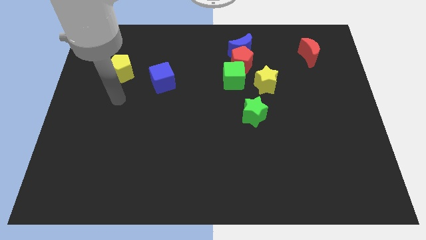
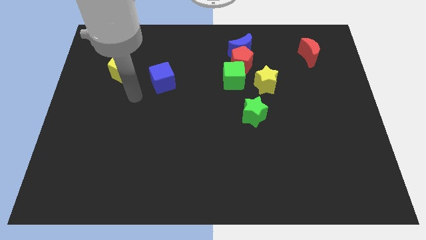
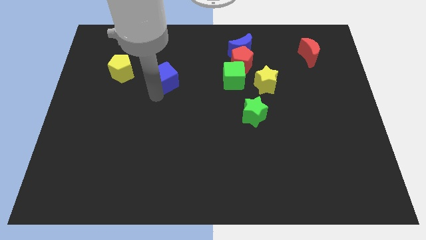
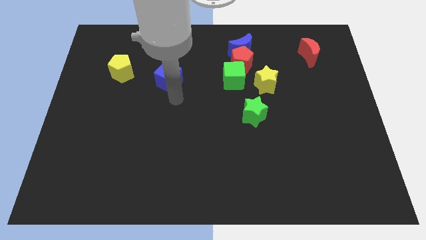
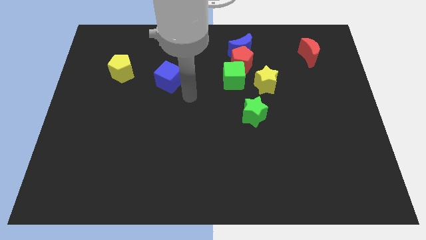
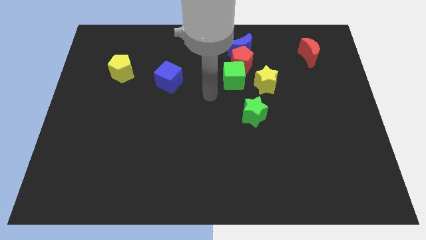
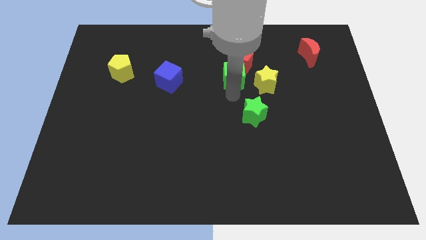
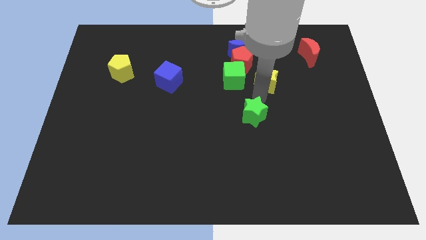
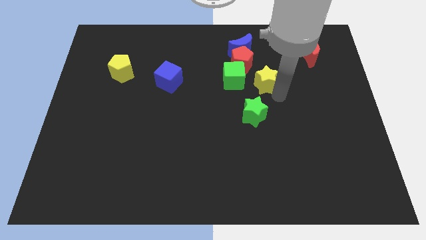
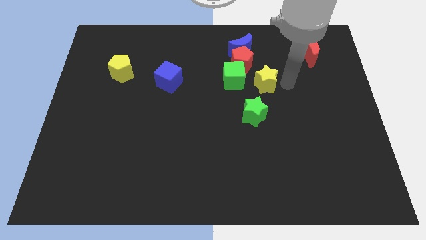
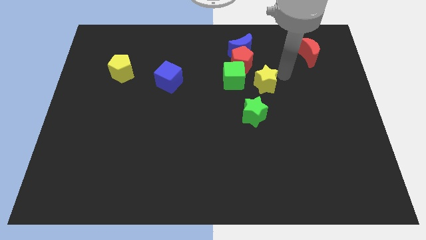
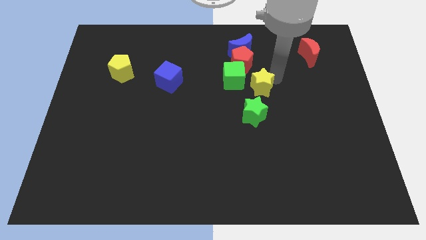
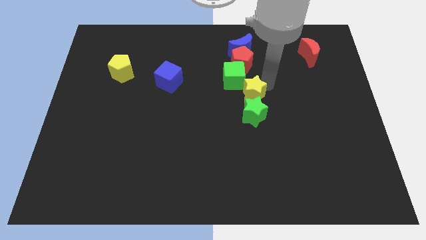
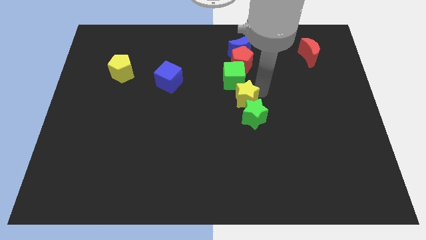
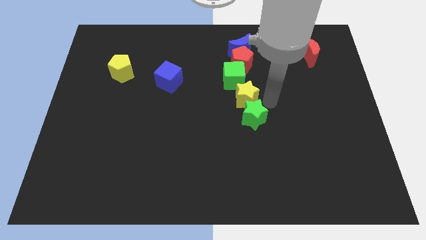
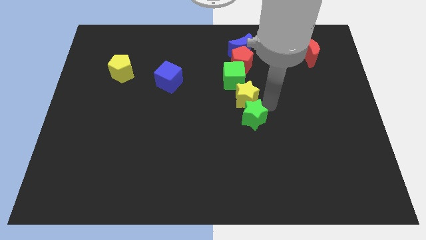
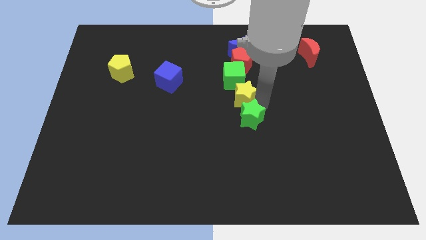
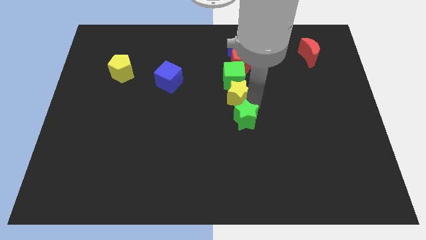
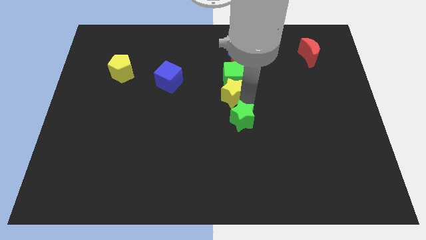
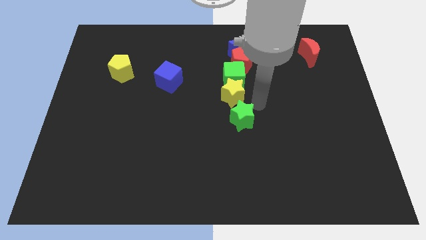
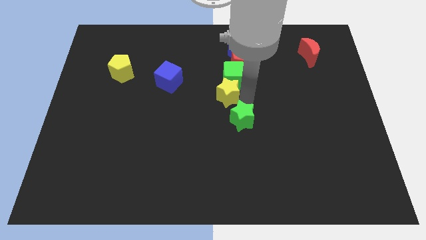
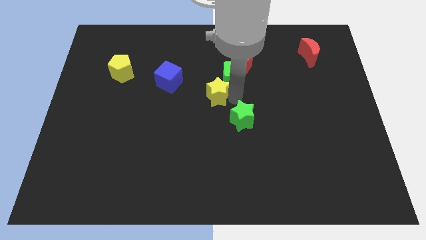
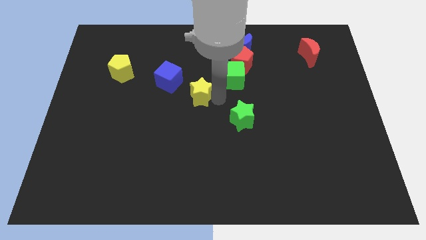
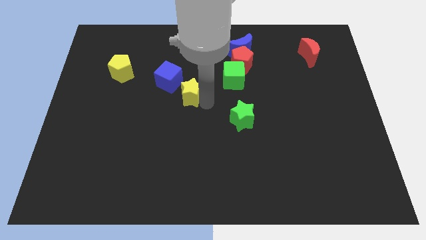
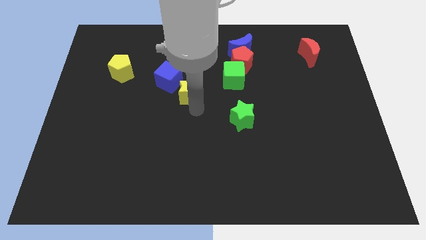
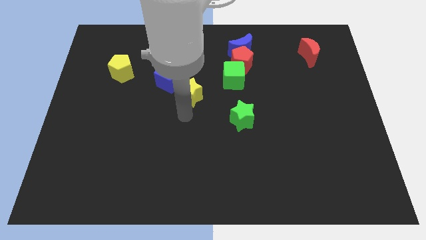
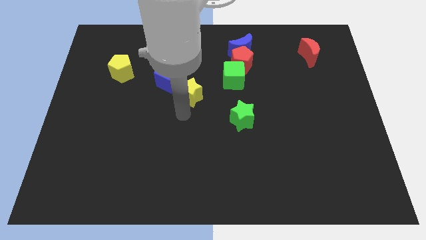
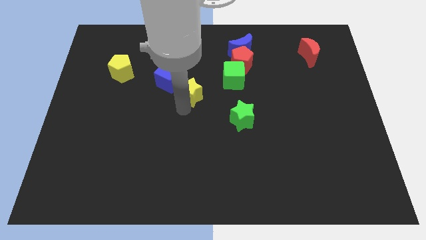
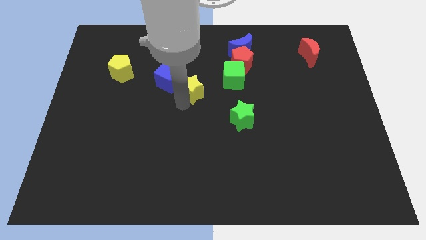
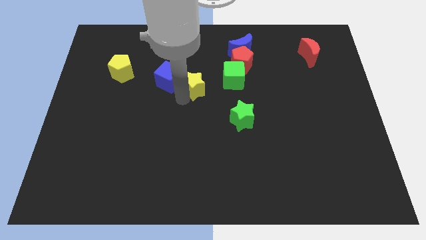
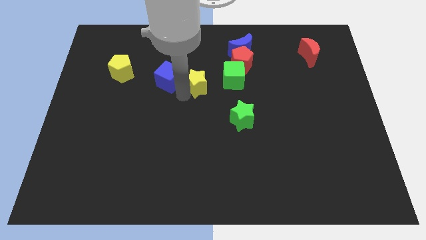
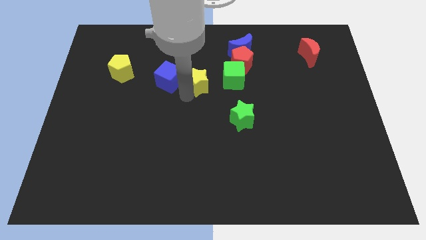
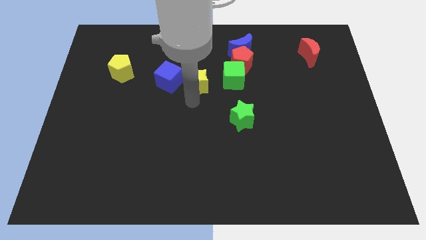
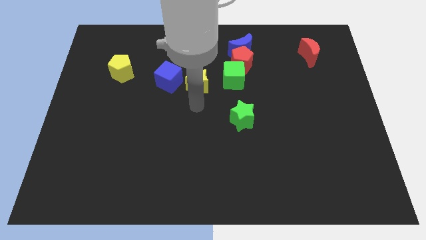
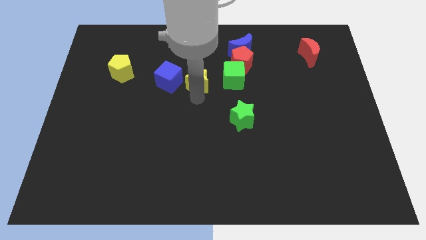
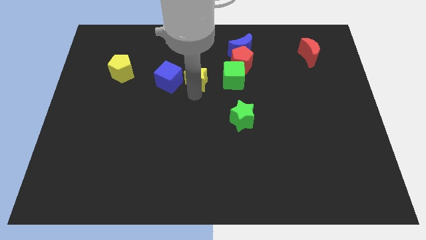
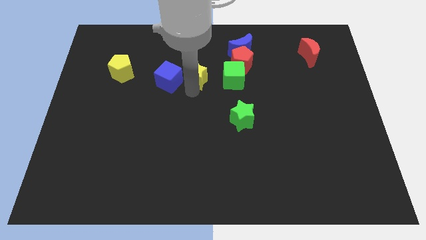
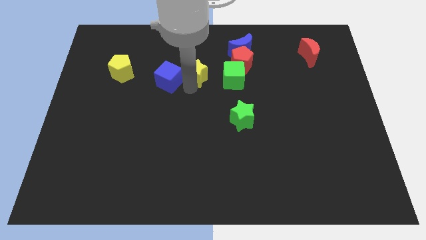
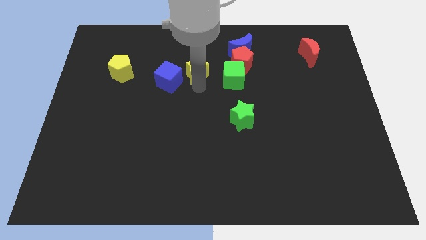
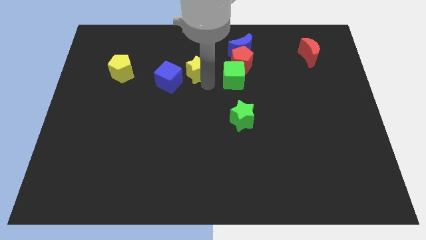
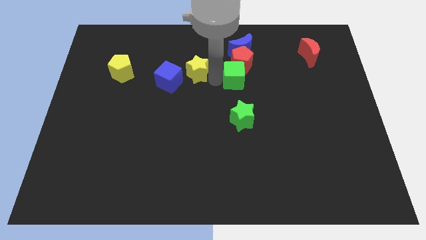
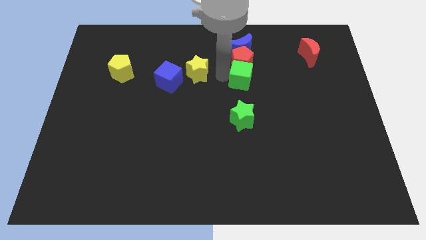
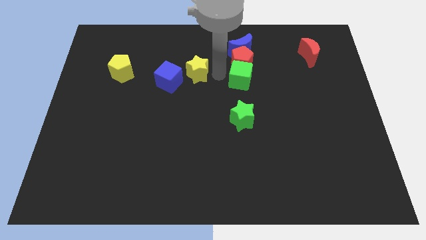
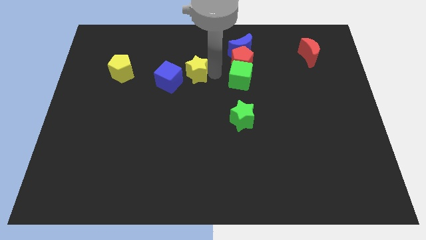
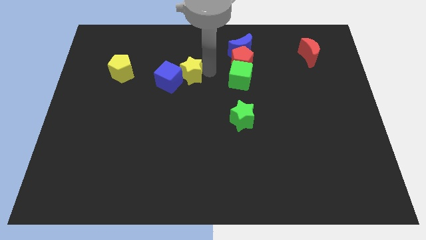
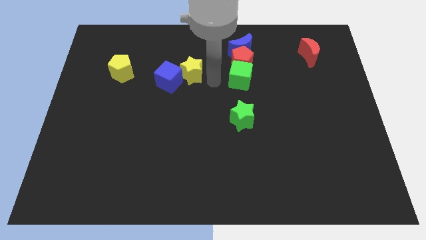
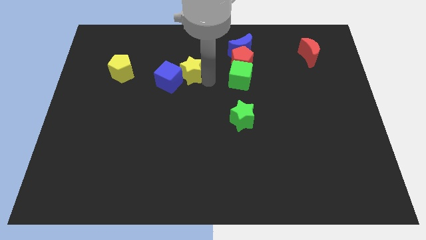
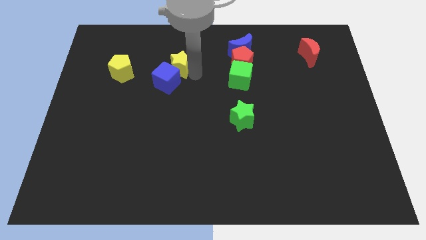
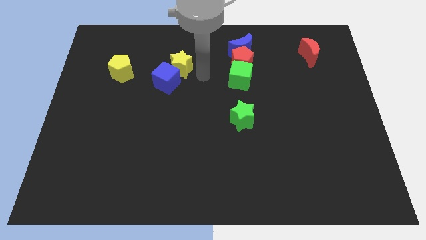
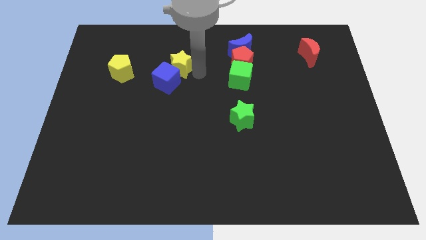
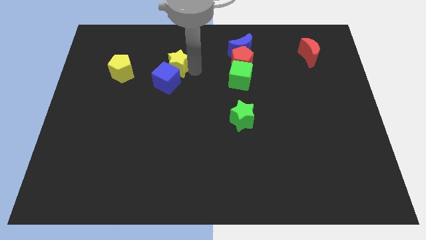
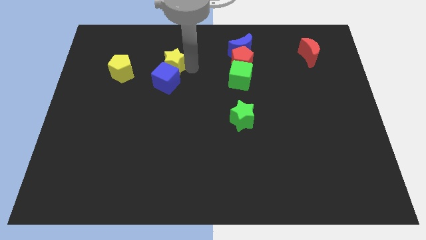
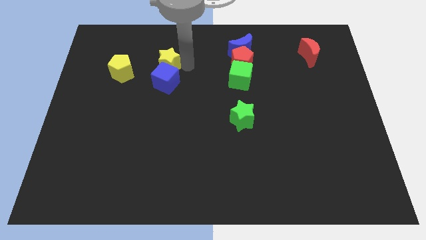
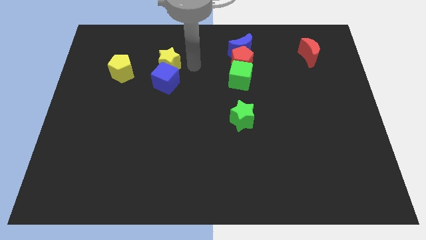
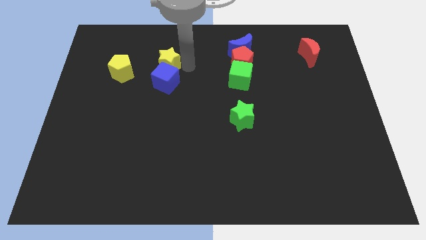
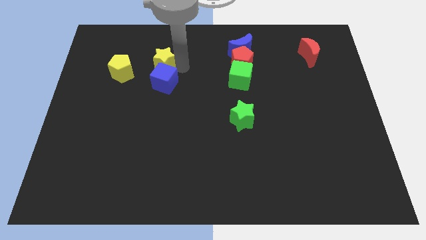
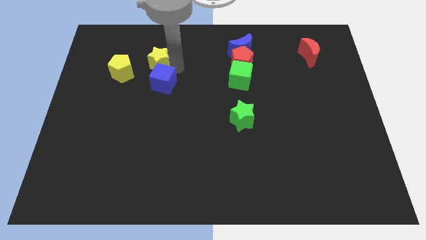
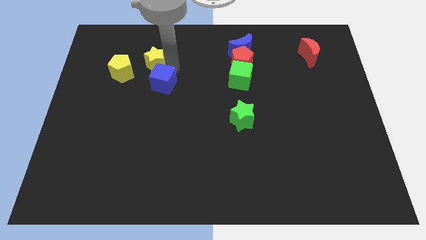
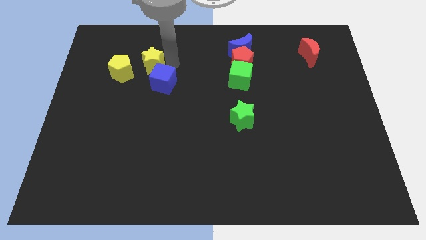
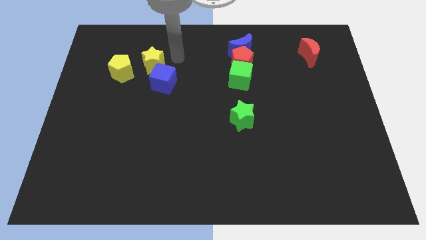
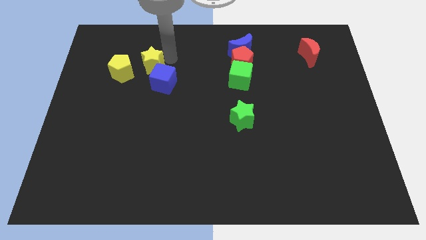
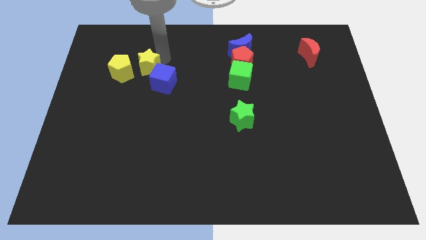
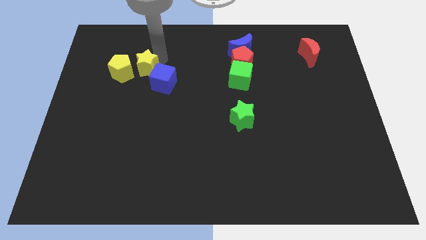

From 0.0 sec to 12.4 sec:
slide the yellow star to the yellow pentagon
